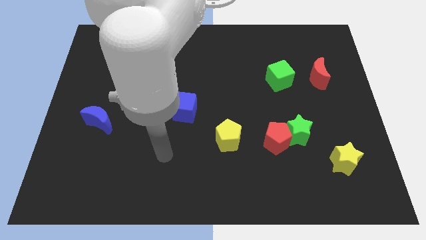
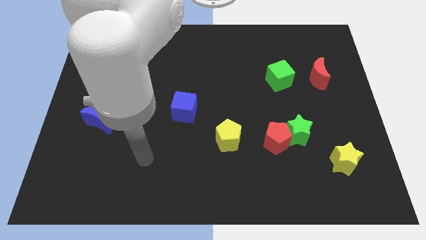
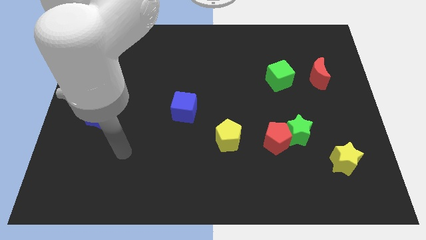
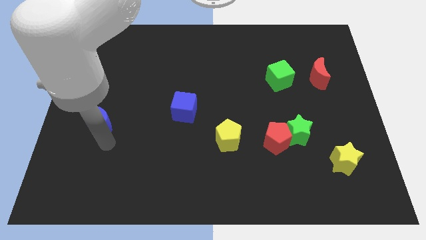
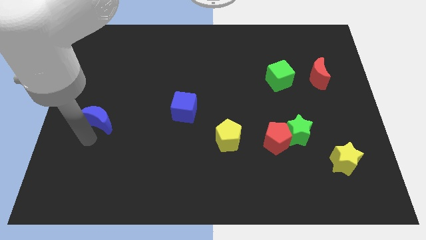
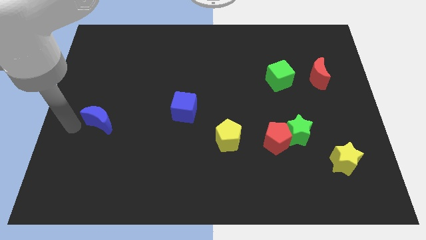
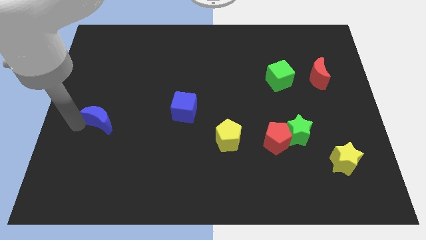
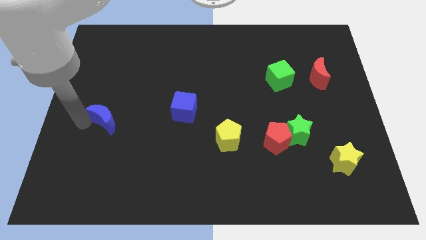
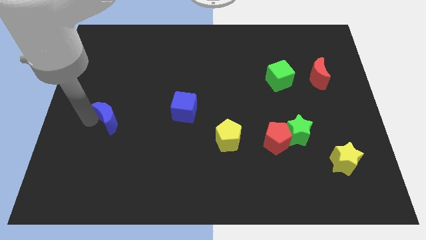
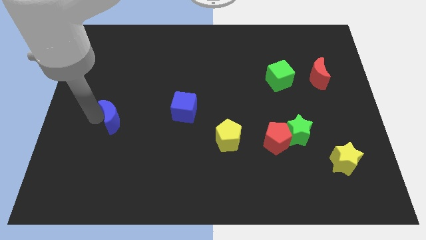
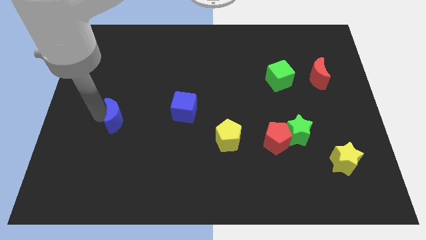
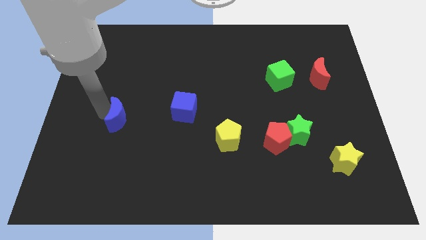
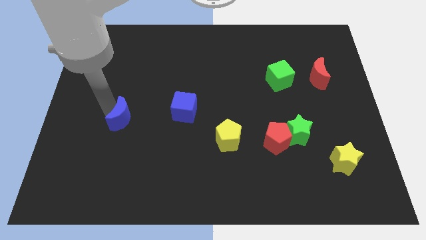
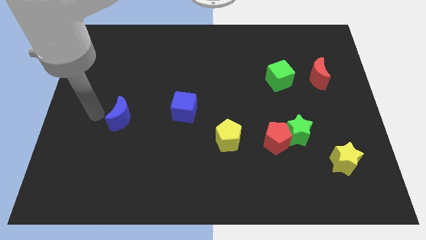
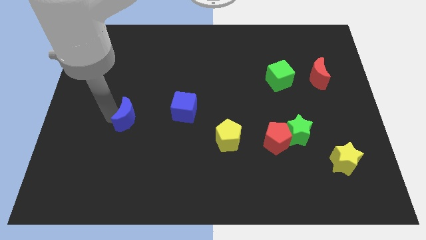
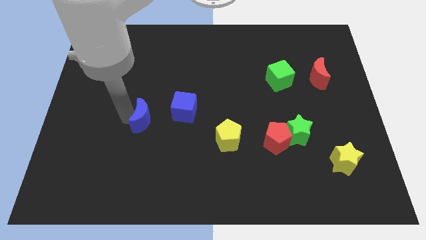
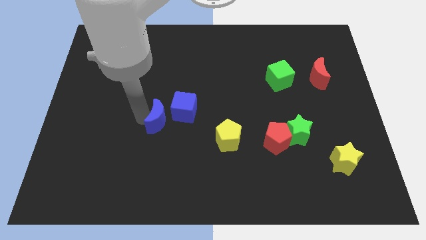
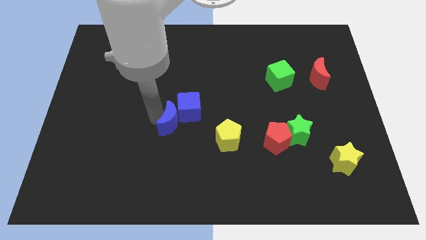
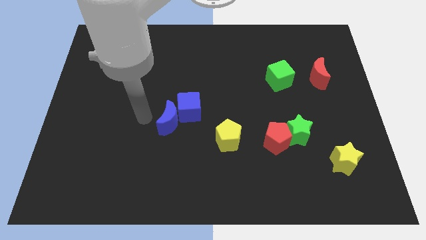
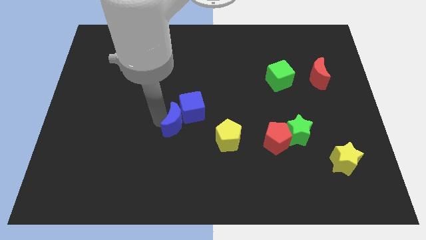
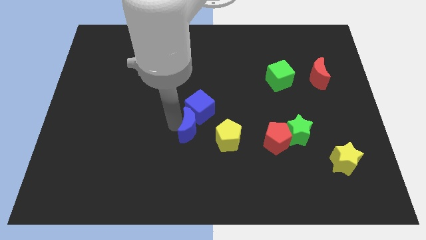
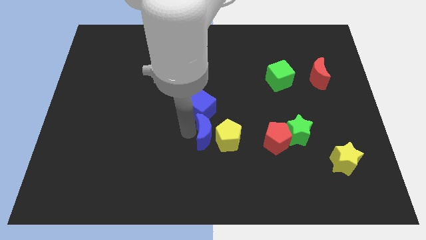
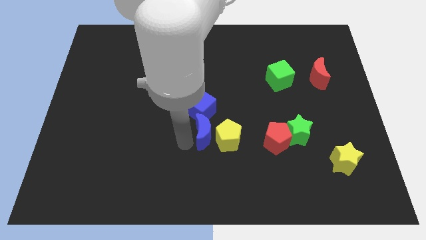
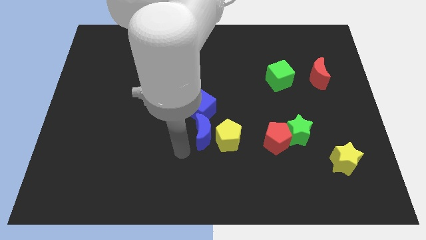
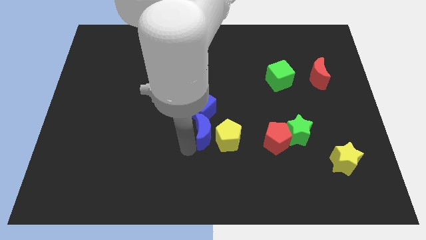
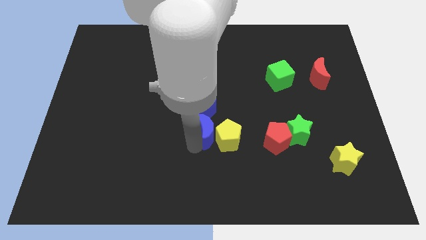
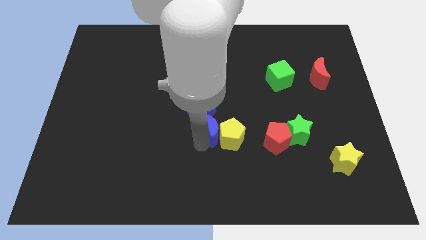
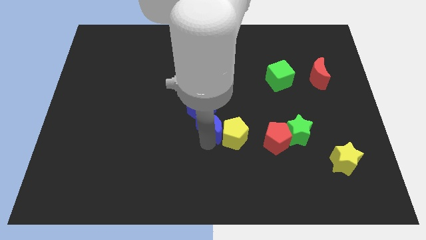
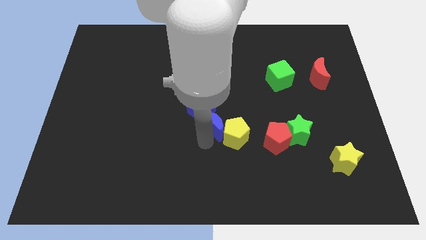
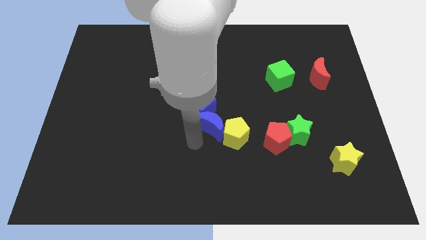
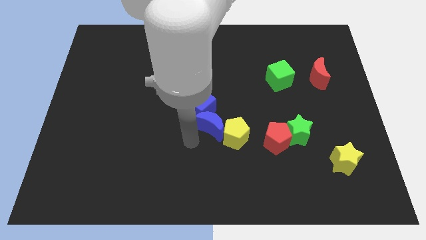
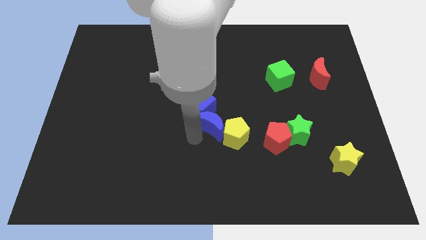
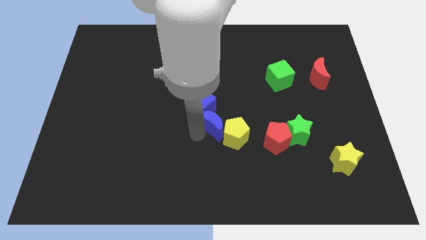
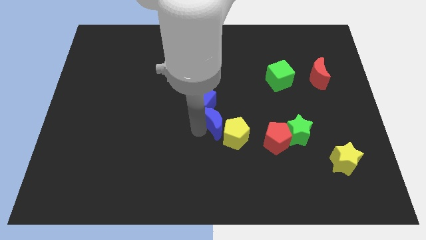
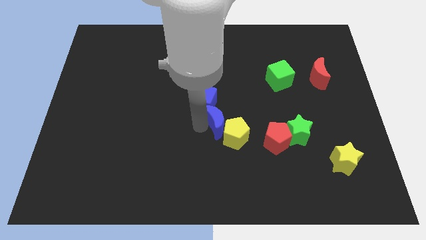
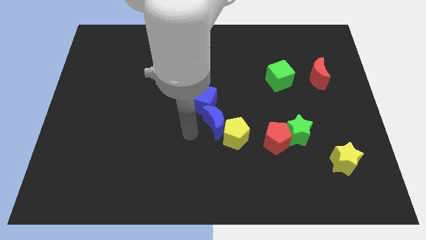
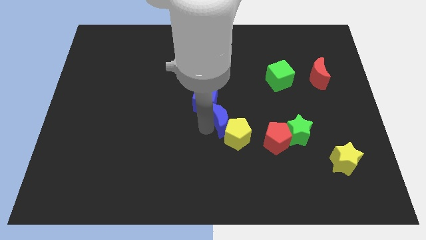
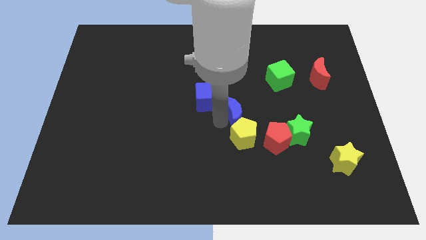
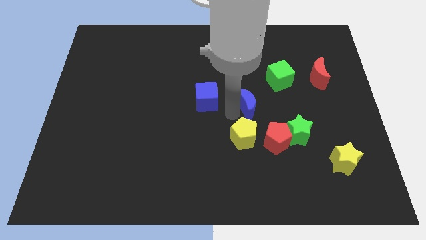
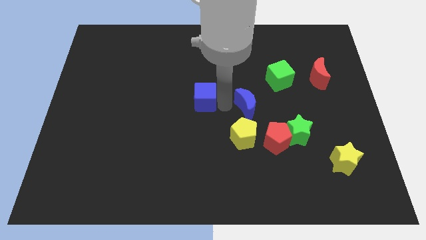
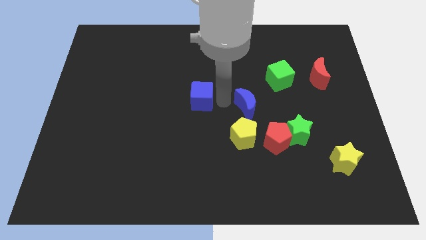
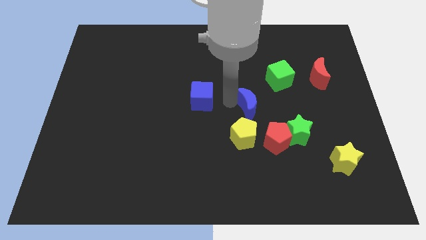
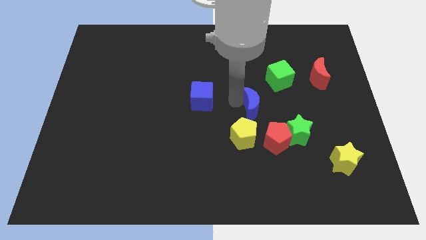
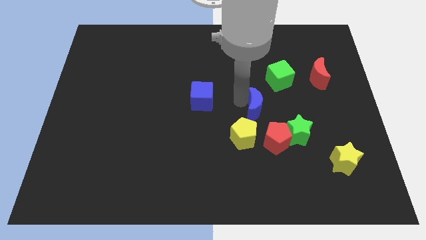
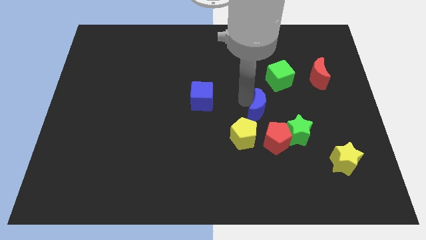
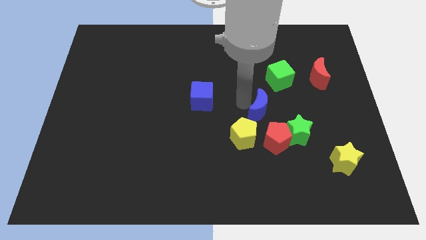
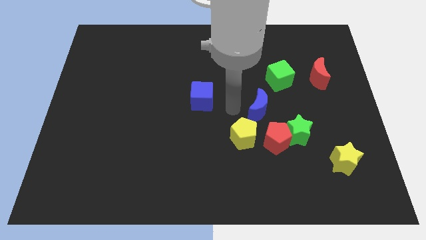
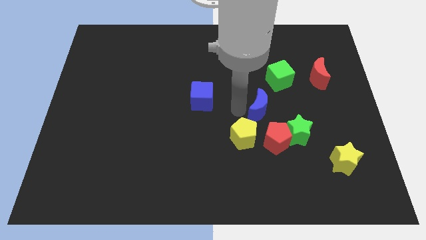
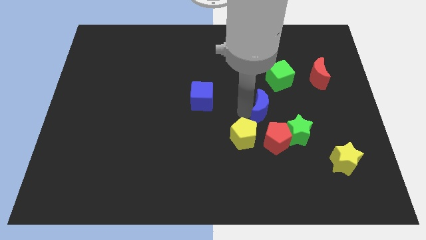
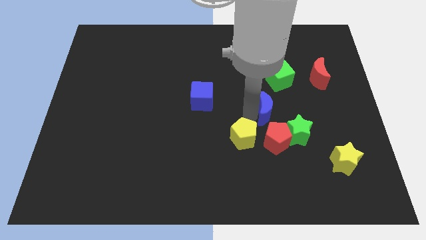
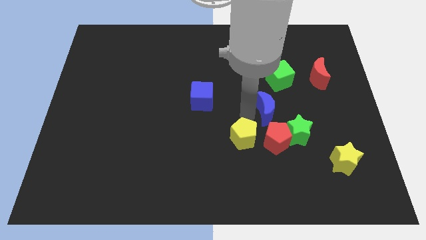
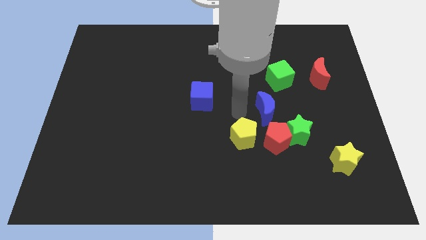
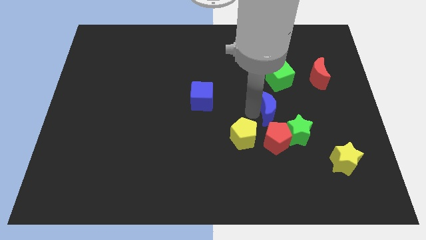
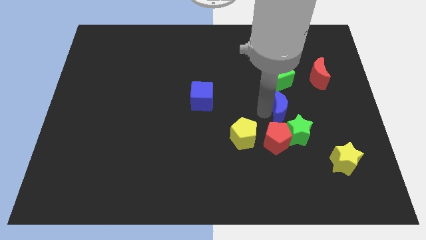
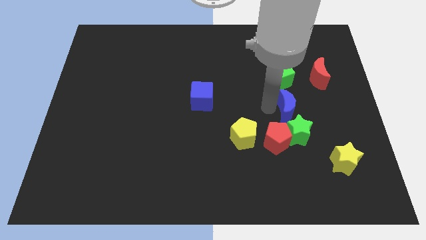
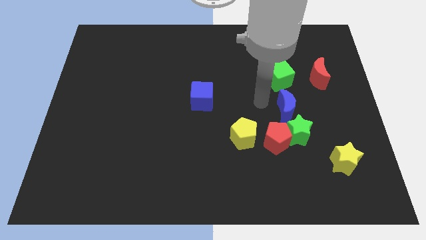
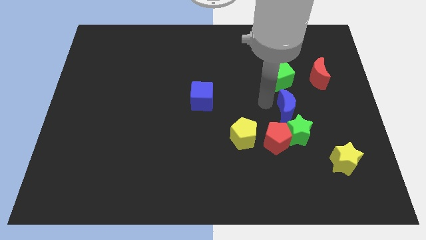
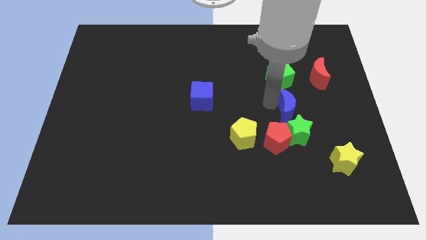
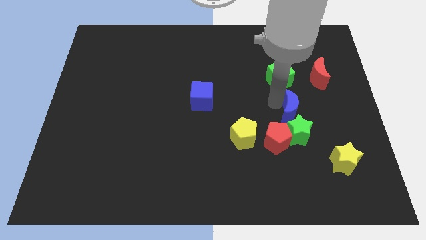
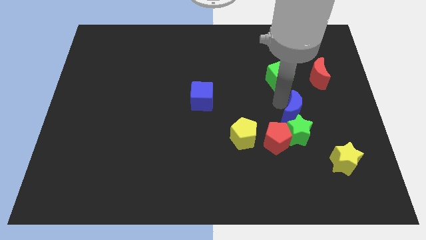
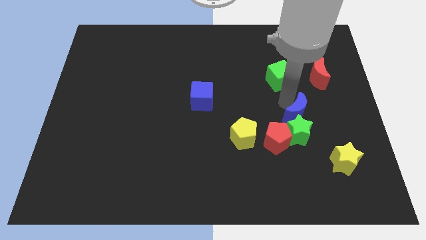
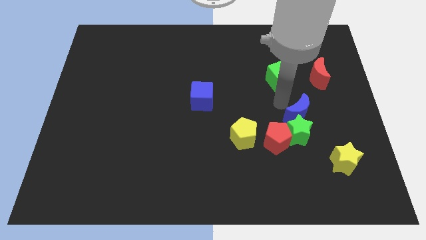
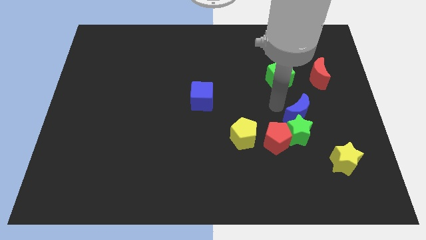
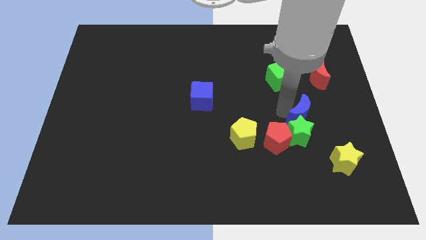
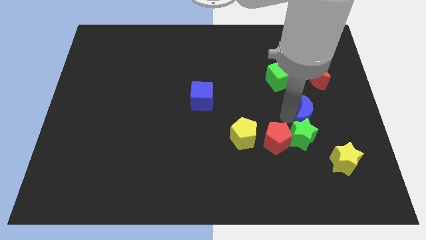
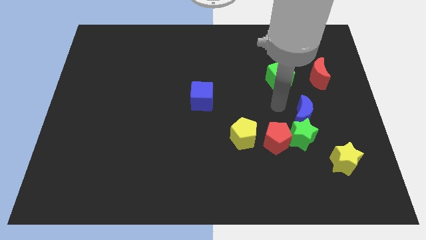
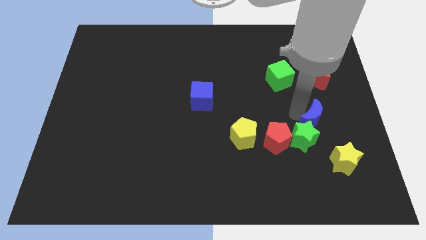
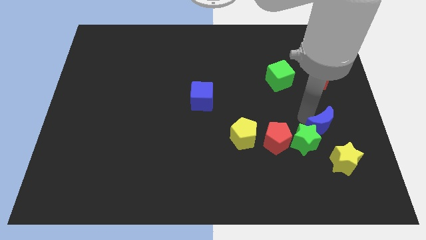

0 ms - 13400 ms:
slide the blue moon right of the green star

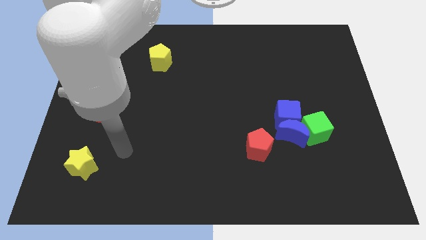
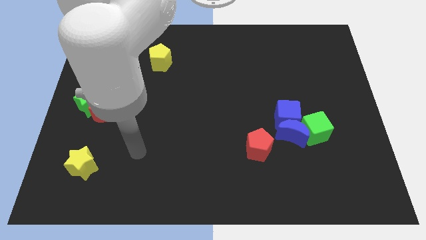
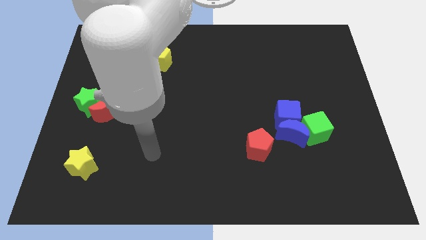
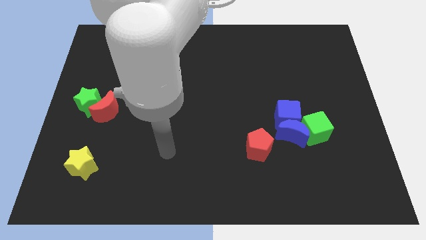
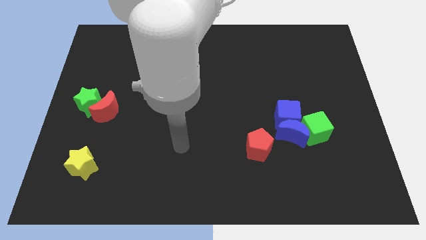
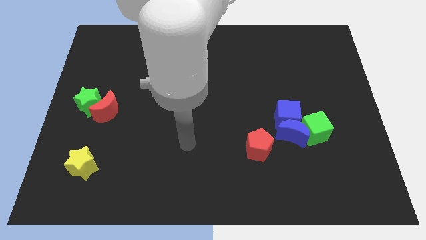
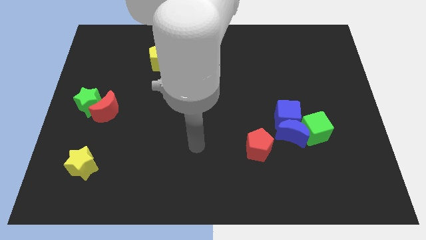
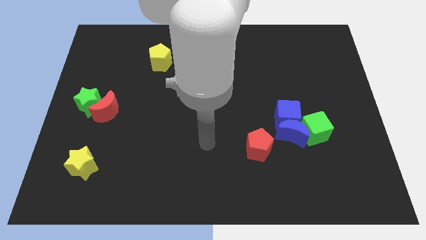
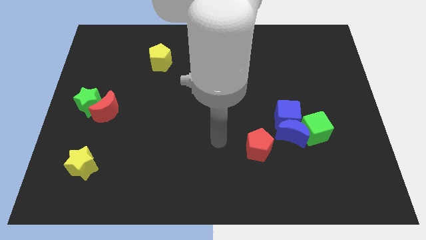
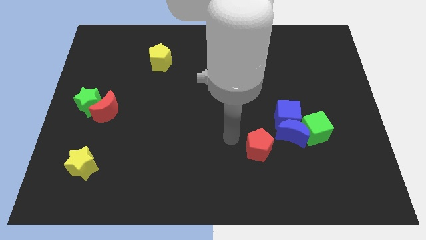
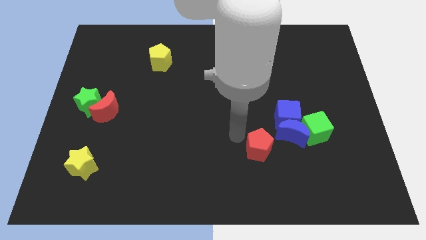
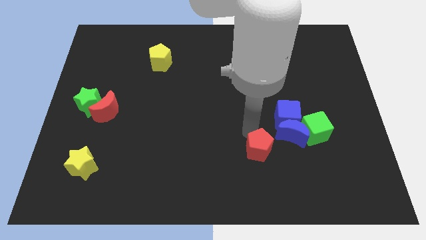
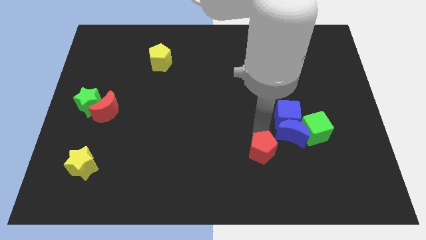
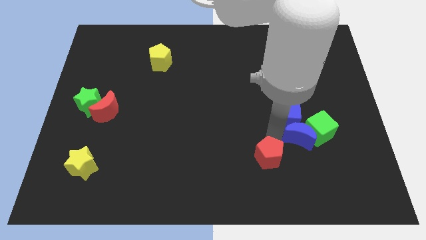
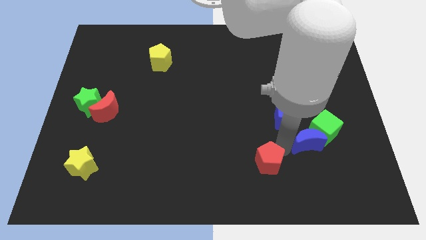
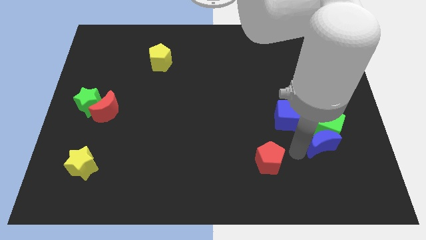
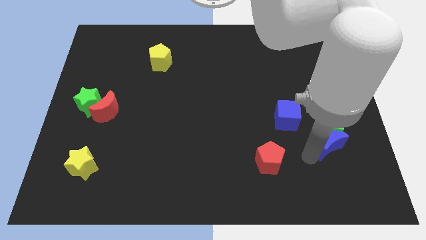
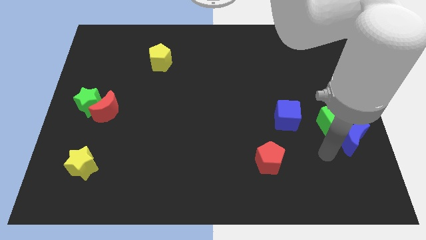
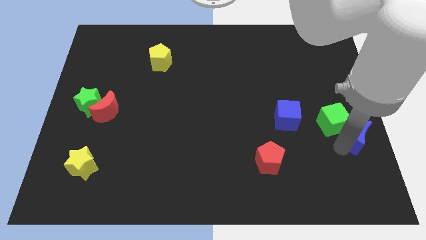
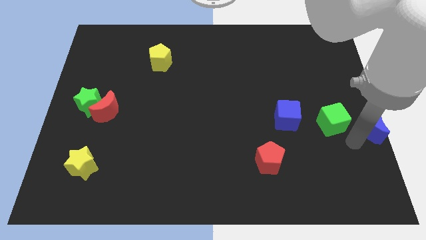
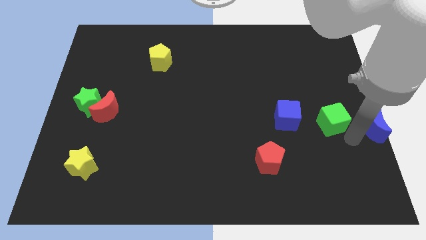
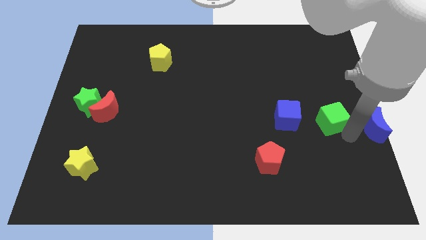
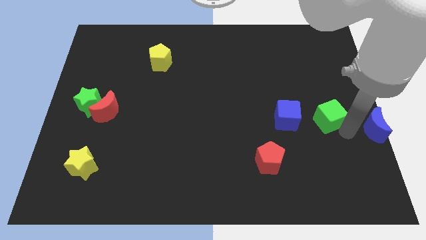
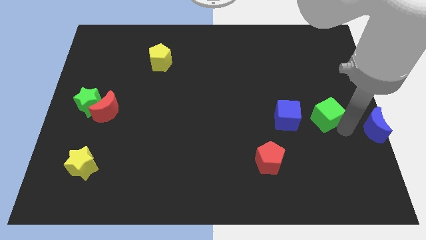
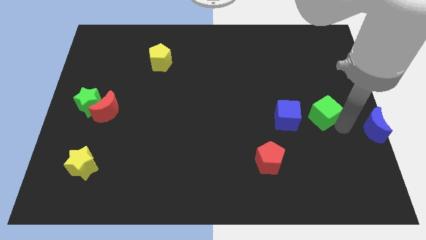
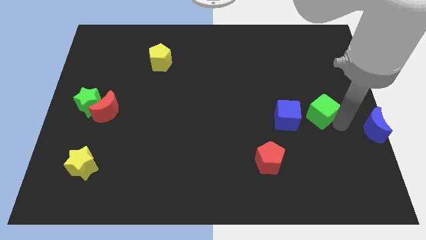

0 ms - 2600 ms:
move the green cube to the top right side of the blue cube
